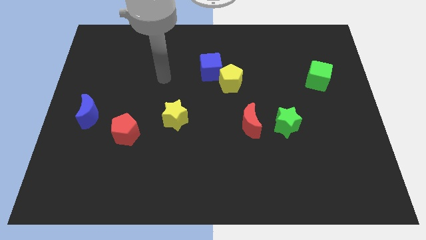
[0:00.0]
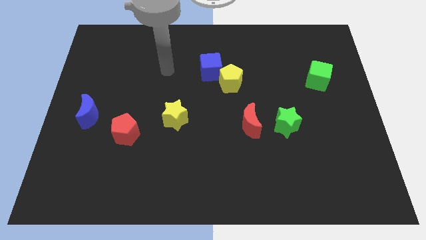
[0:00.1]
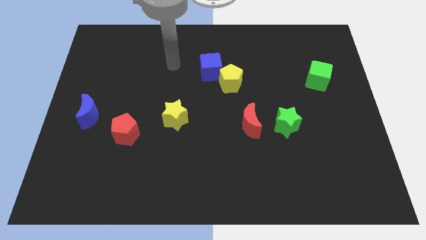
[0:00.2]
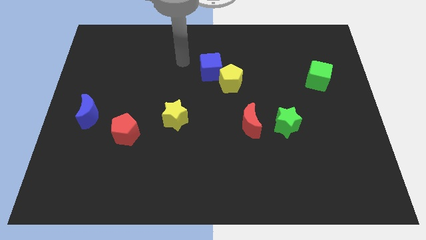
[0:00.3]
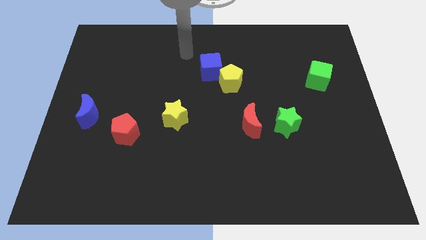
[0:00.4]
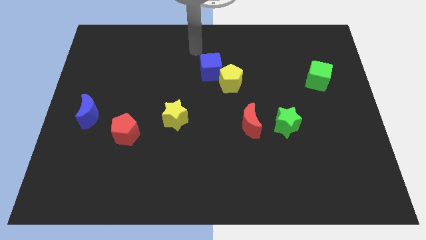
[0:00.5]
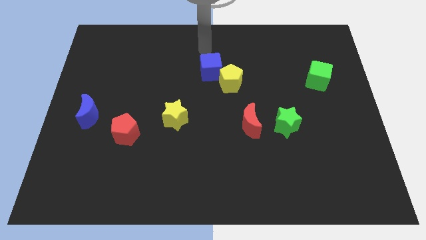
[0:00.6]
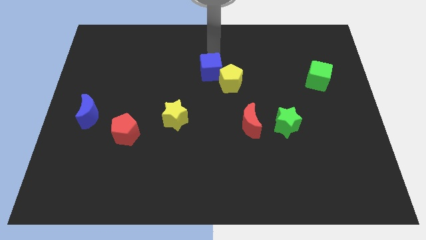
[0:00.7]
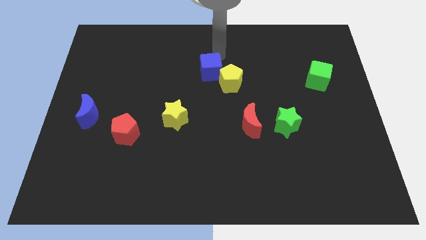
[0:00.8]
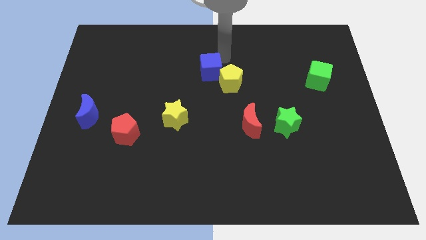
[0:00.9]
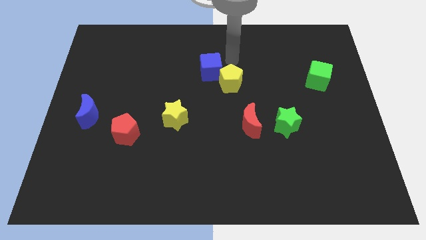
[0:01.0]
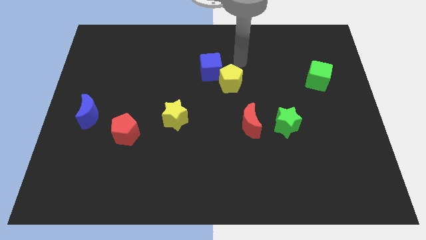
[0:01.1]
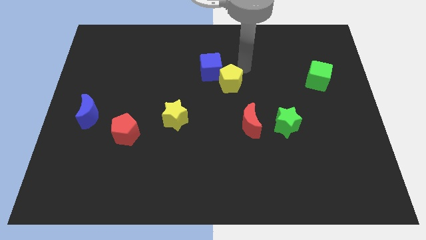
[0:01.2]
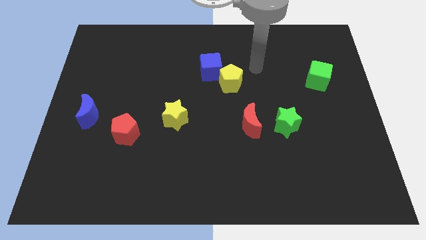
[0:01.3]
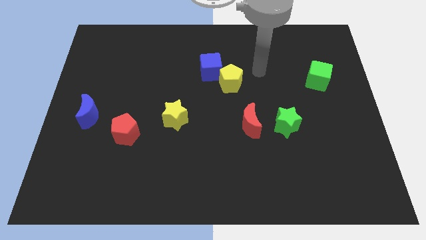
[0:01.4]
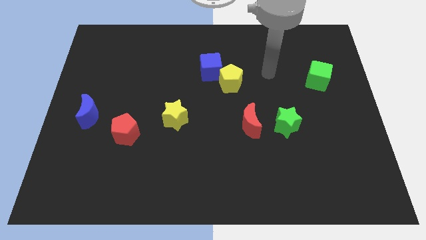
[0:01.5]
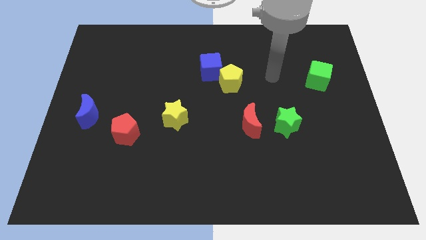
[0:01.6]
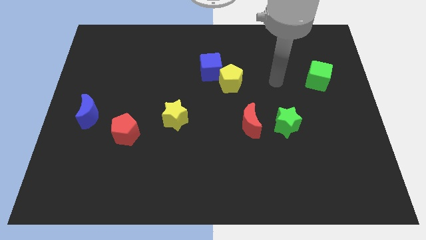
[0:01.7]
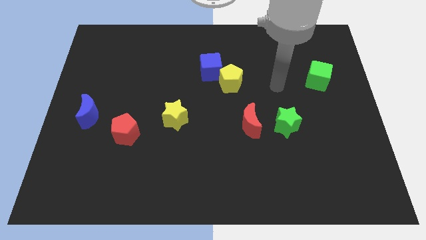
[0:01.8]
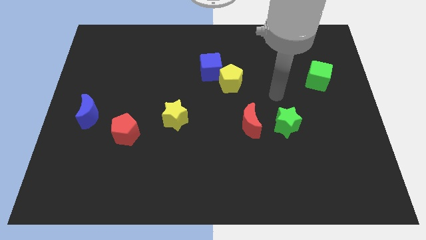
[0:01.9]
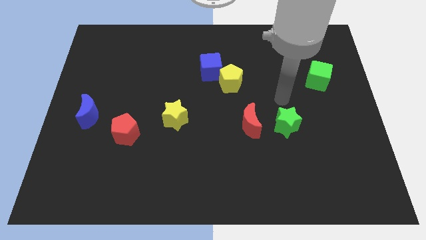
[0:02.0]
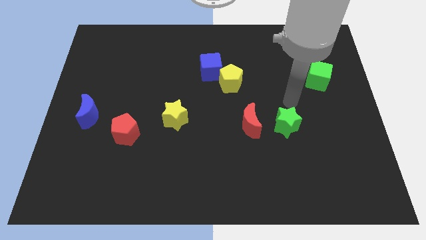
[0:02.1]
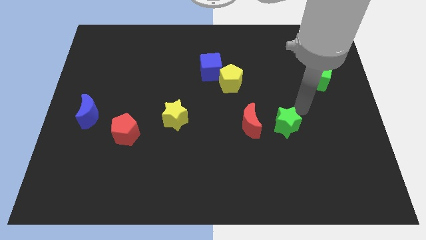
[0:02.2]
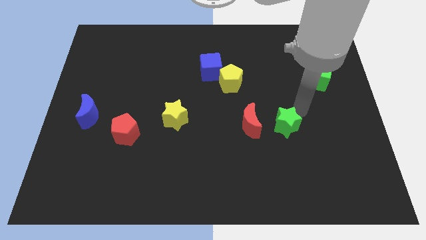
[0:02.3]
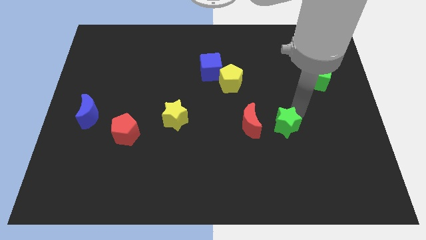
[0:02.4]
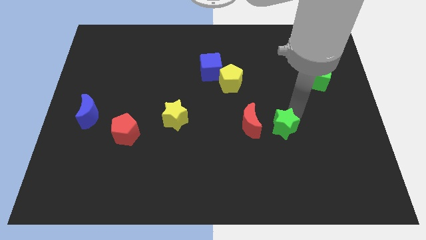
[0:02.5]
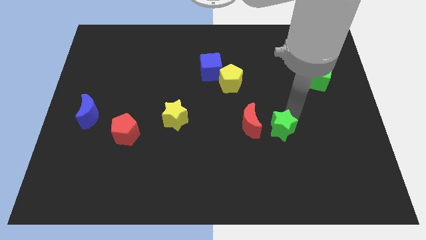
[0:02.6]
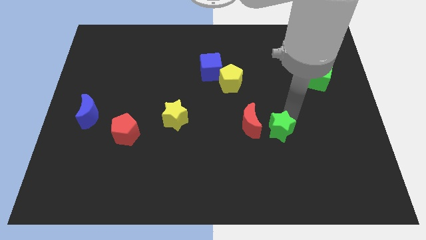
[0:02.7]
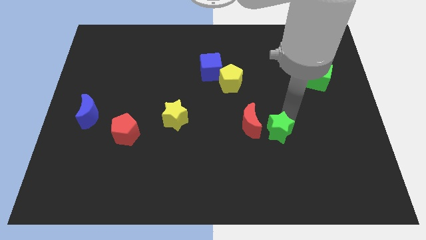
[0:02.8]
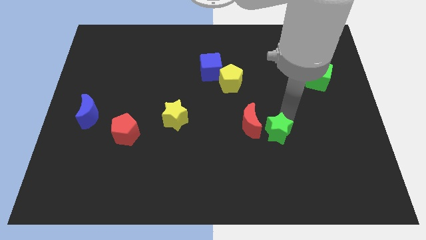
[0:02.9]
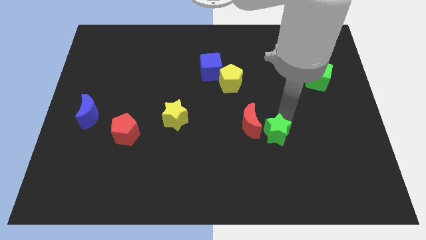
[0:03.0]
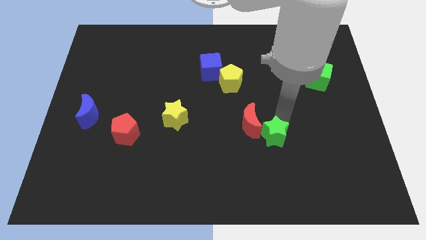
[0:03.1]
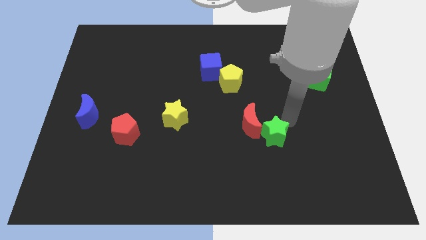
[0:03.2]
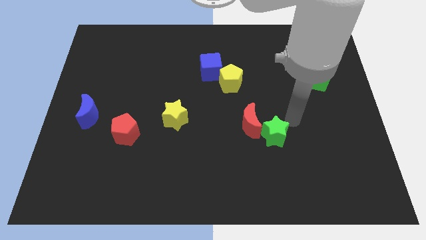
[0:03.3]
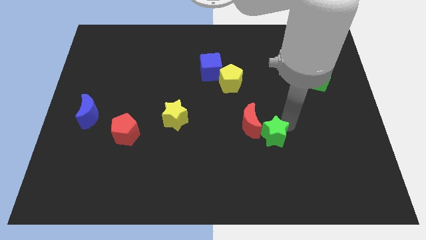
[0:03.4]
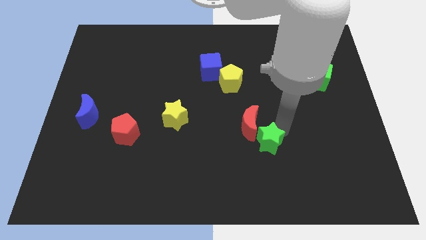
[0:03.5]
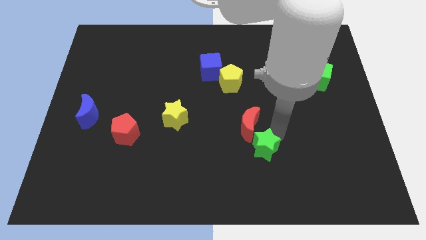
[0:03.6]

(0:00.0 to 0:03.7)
move the green star diagonally downwards and left slightly

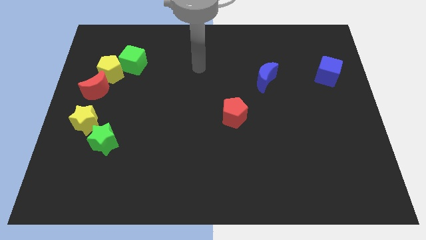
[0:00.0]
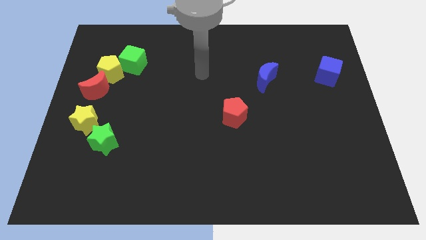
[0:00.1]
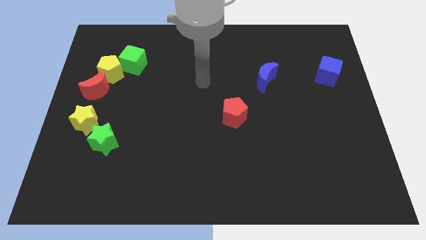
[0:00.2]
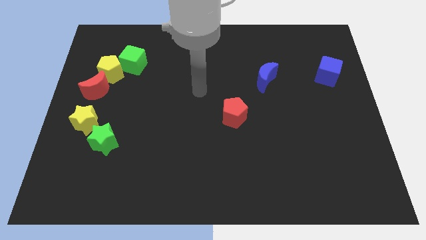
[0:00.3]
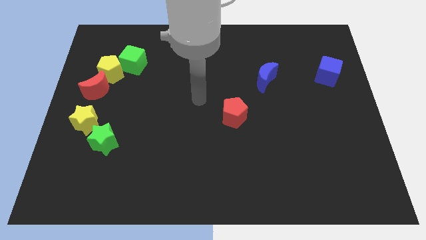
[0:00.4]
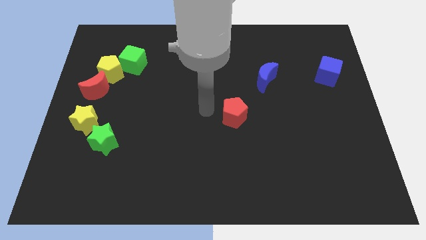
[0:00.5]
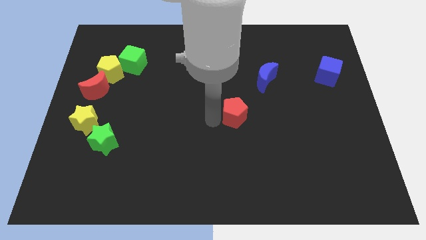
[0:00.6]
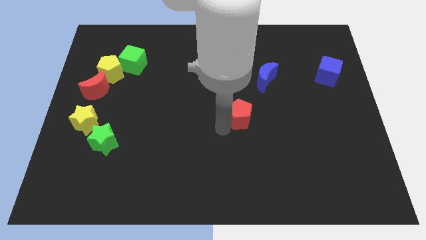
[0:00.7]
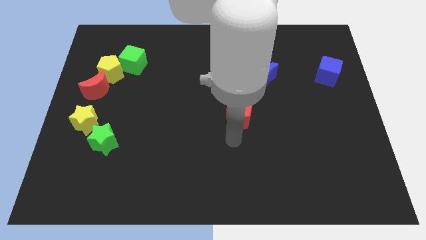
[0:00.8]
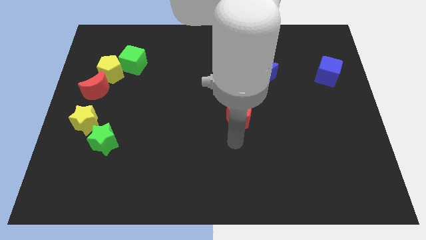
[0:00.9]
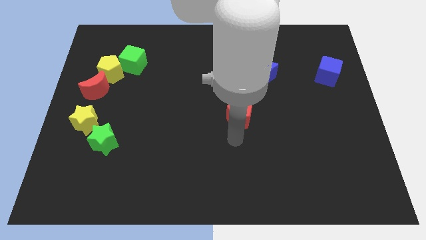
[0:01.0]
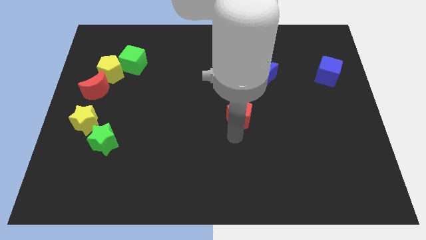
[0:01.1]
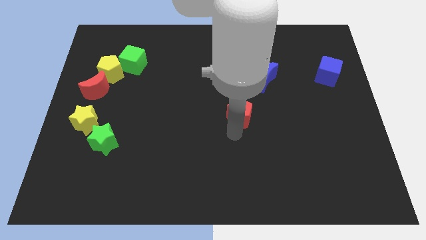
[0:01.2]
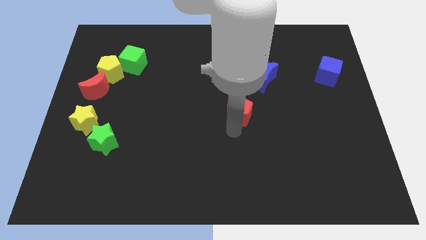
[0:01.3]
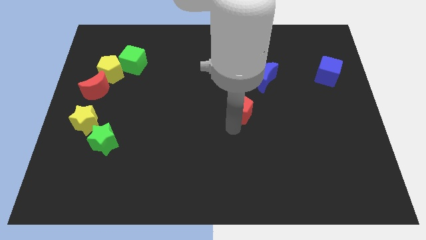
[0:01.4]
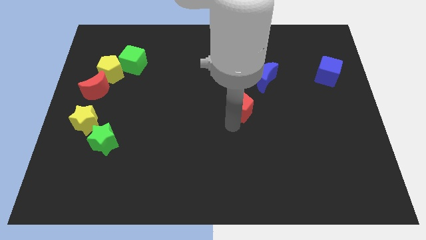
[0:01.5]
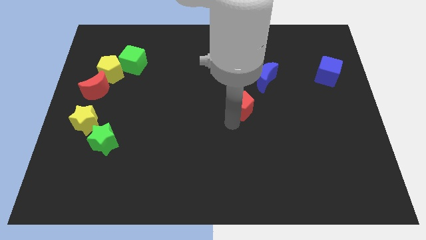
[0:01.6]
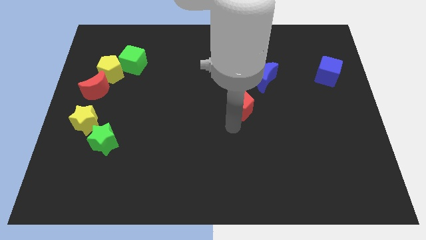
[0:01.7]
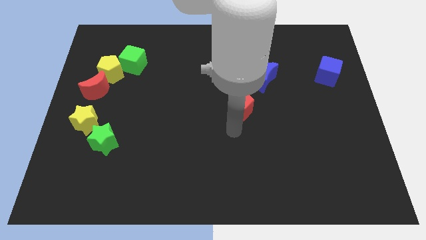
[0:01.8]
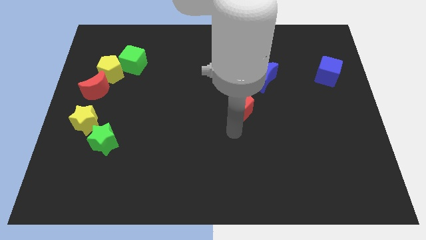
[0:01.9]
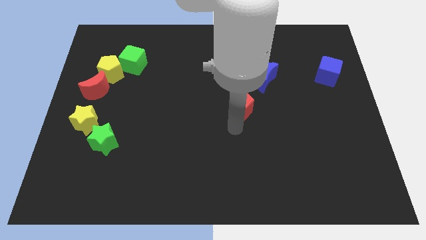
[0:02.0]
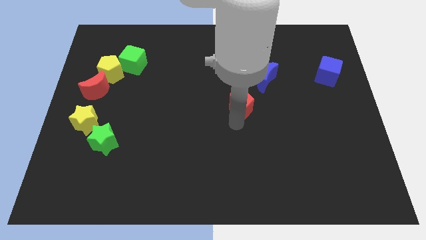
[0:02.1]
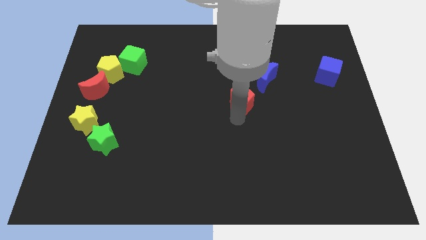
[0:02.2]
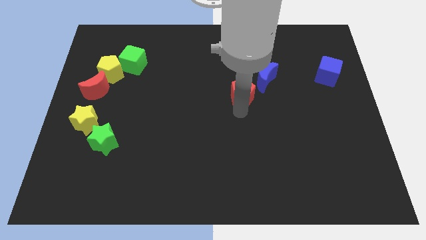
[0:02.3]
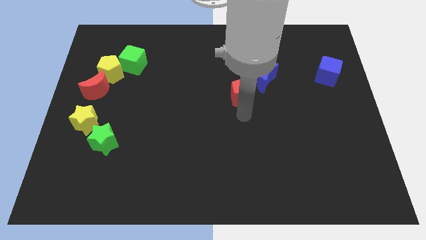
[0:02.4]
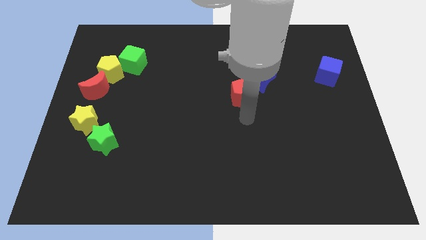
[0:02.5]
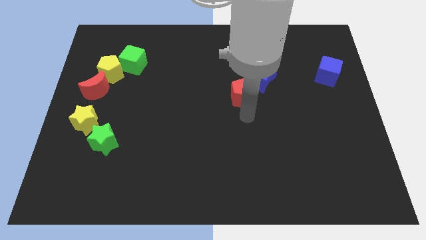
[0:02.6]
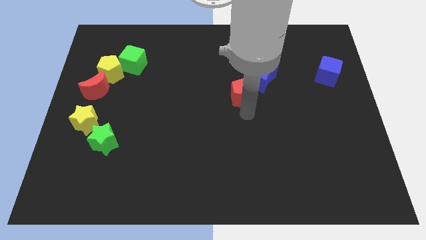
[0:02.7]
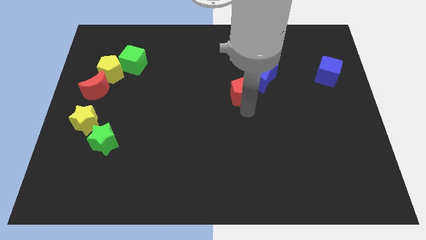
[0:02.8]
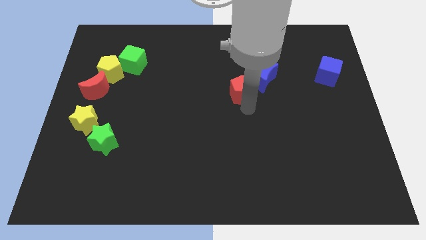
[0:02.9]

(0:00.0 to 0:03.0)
slide the red pentagon upwards slightly

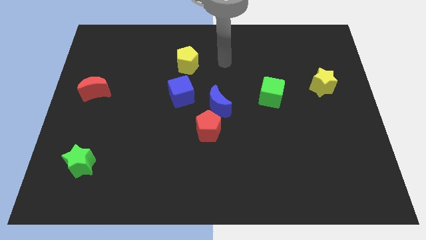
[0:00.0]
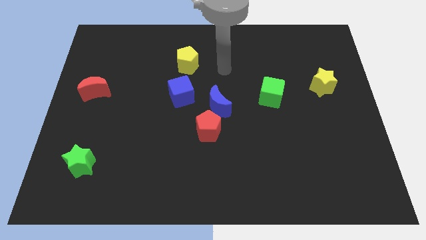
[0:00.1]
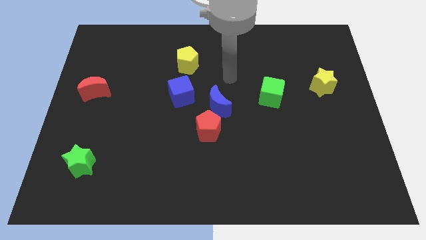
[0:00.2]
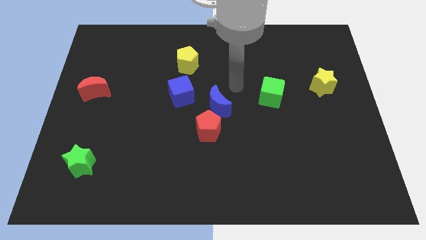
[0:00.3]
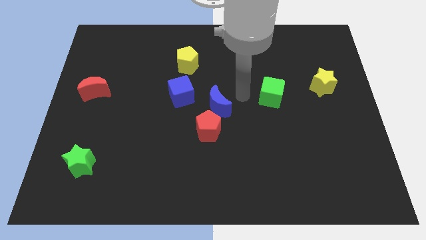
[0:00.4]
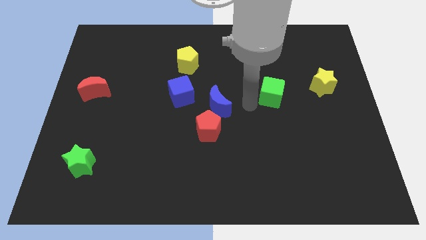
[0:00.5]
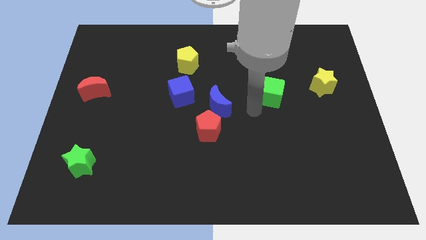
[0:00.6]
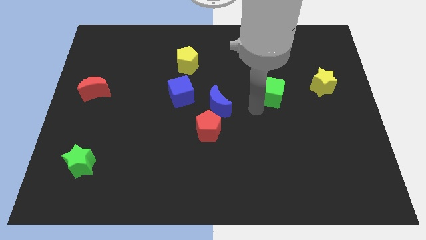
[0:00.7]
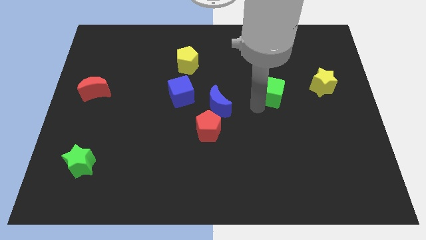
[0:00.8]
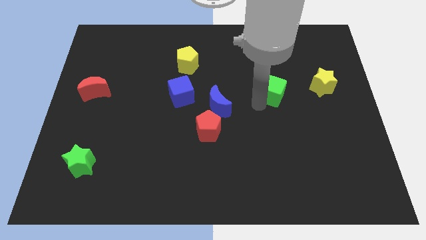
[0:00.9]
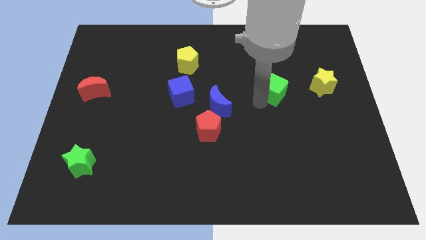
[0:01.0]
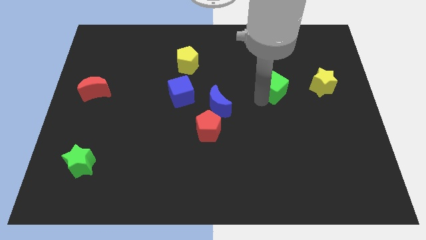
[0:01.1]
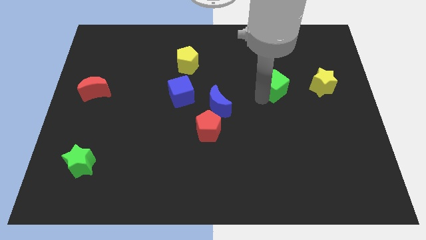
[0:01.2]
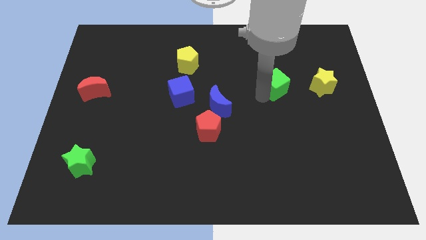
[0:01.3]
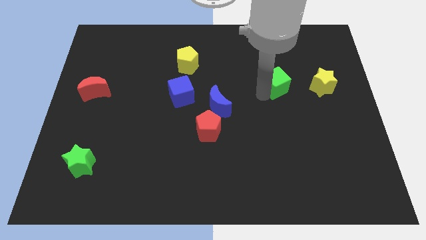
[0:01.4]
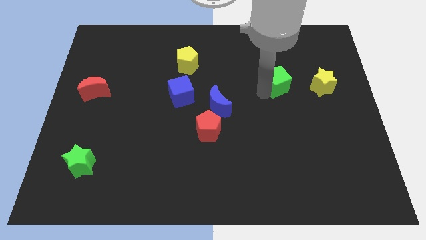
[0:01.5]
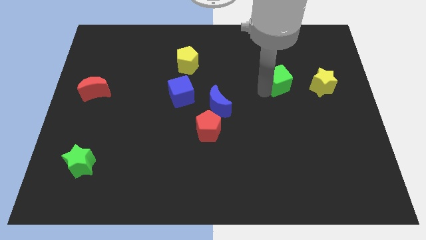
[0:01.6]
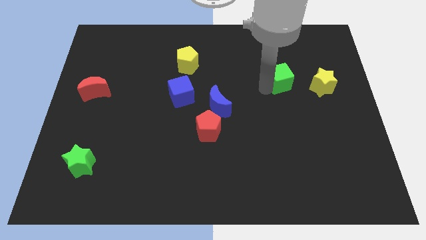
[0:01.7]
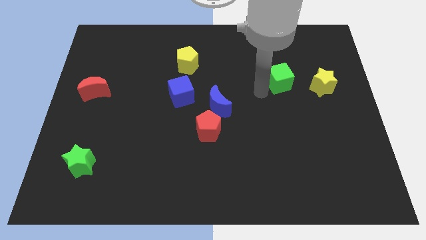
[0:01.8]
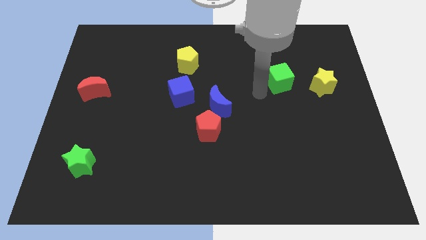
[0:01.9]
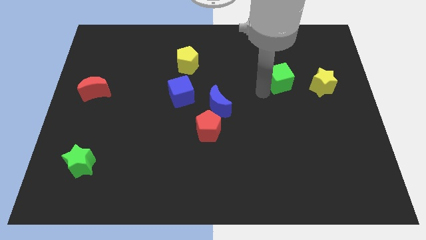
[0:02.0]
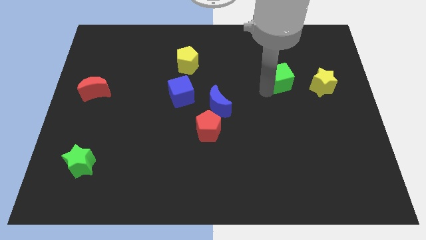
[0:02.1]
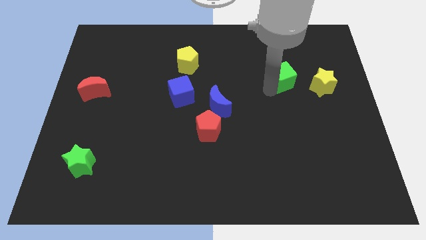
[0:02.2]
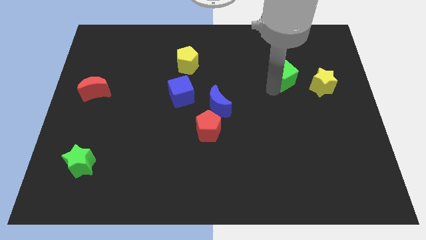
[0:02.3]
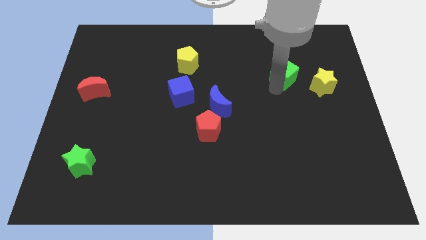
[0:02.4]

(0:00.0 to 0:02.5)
slide the green cube diagonally upwards and right a little
